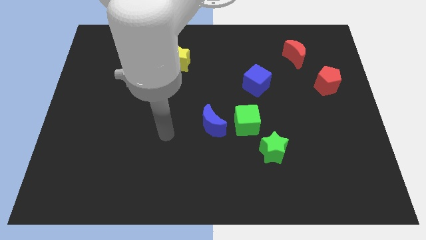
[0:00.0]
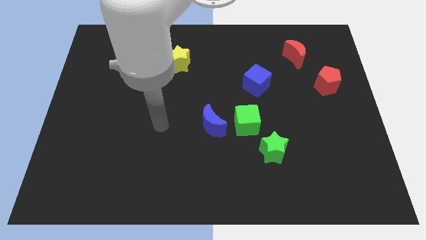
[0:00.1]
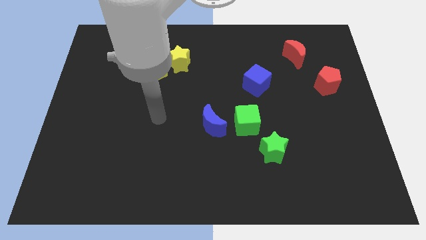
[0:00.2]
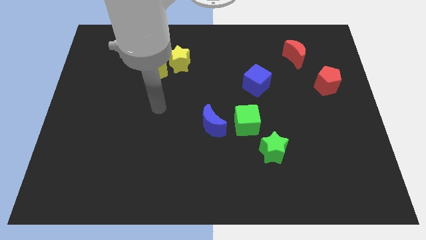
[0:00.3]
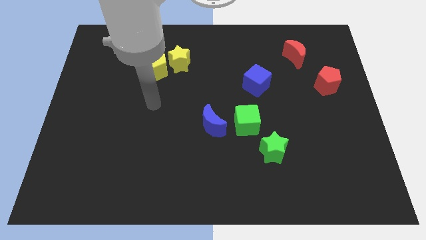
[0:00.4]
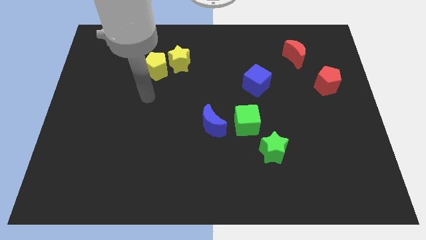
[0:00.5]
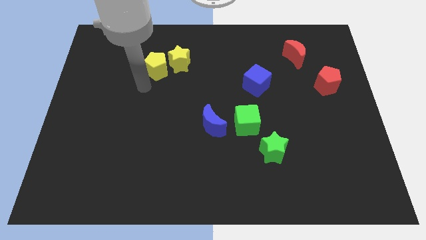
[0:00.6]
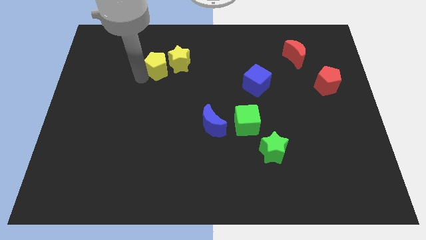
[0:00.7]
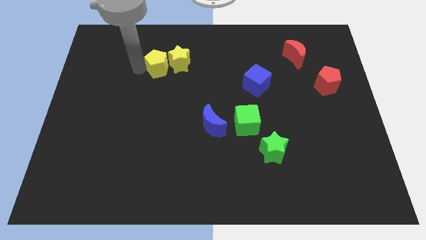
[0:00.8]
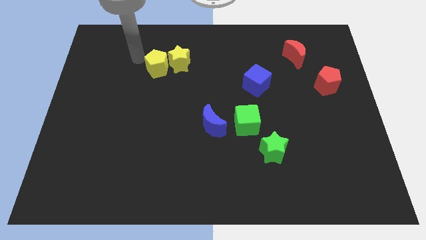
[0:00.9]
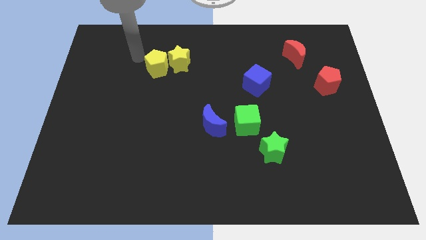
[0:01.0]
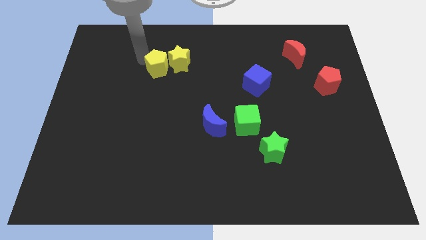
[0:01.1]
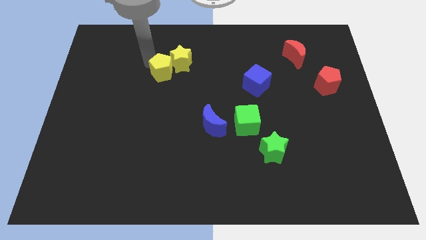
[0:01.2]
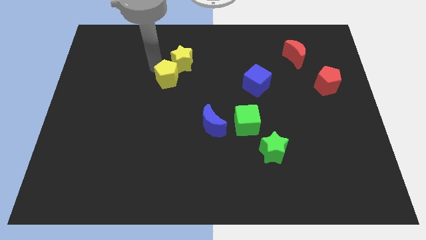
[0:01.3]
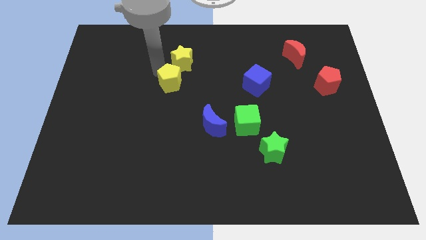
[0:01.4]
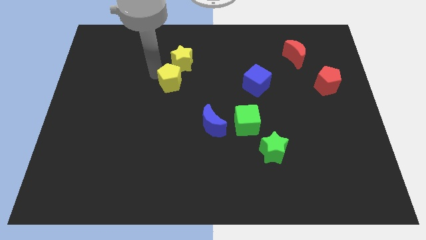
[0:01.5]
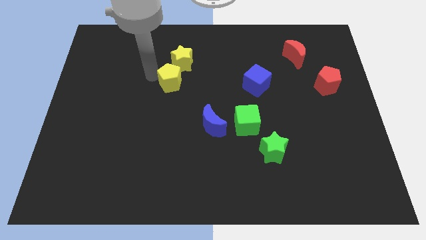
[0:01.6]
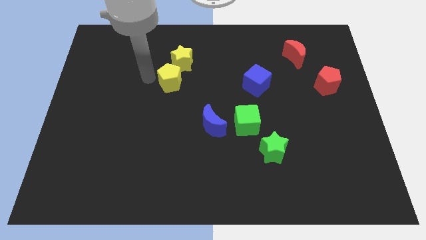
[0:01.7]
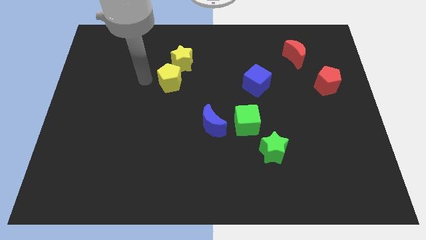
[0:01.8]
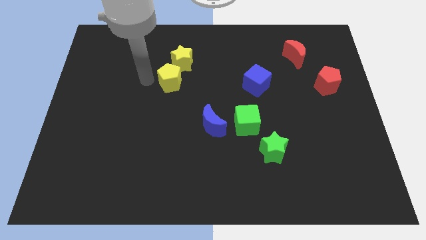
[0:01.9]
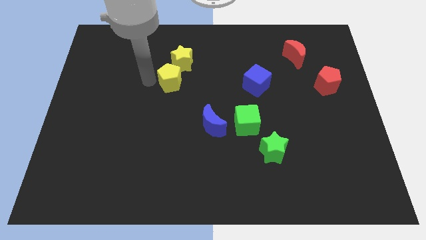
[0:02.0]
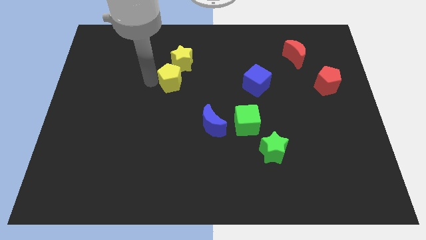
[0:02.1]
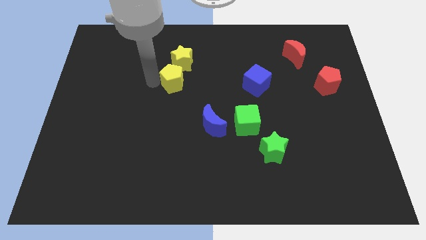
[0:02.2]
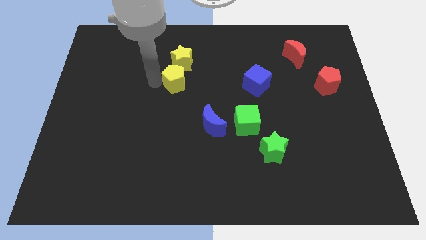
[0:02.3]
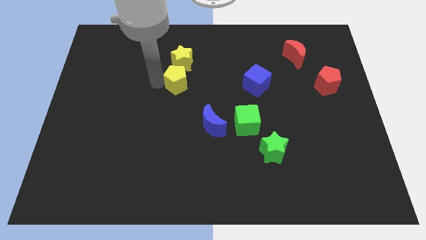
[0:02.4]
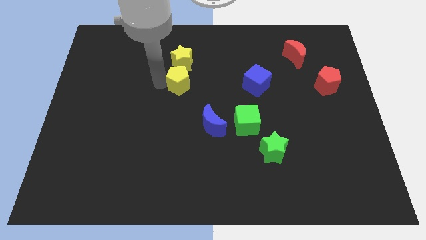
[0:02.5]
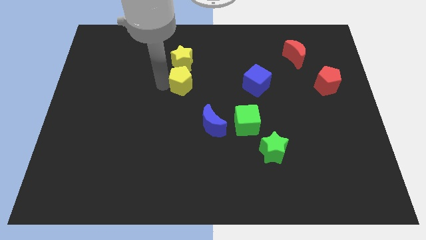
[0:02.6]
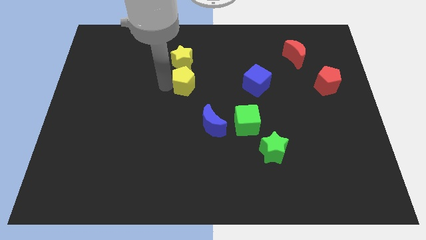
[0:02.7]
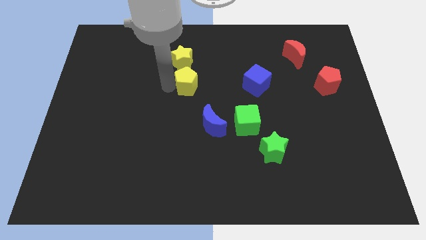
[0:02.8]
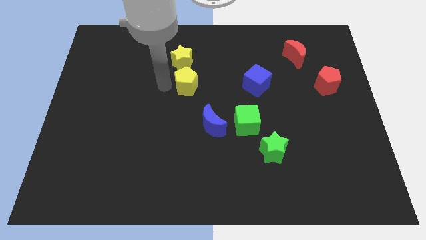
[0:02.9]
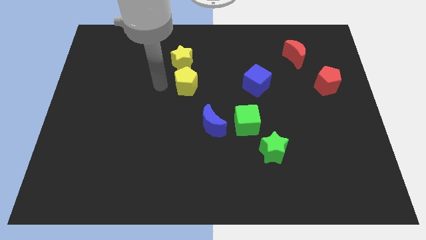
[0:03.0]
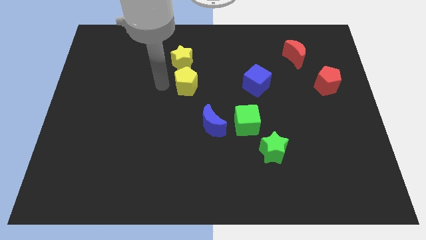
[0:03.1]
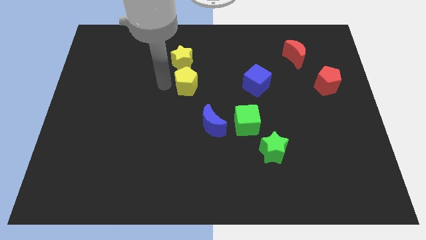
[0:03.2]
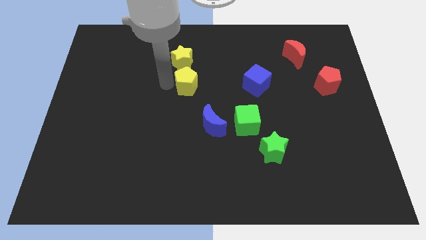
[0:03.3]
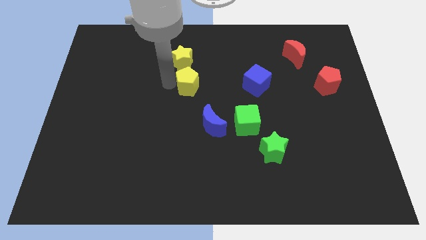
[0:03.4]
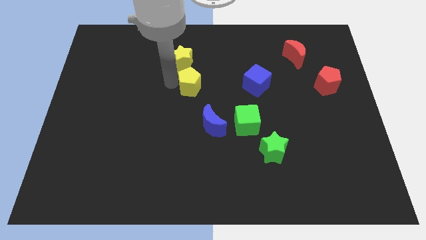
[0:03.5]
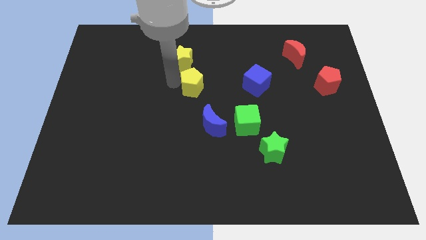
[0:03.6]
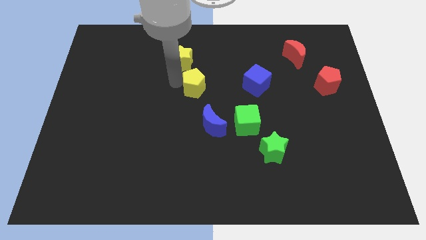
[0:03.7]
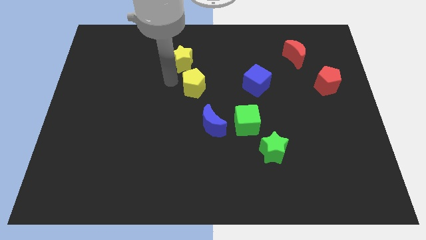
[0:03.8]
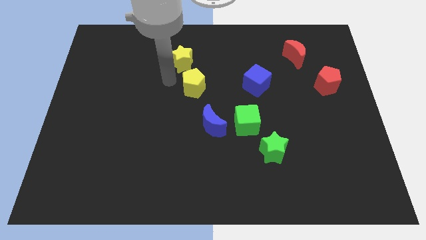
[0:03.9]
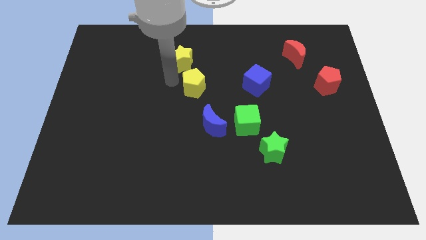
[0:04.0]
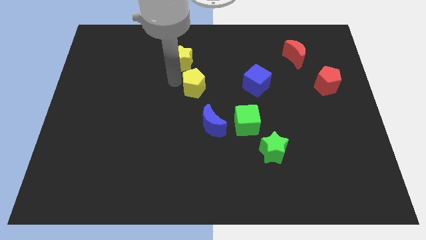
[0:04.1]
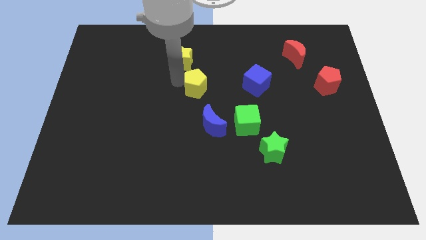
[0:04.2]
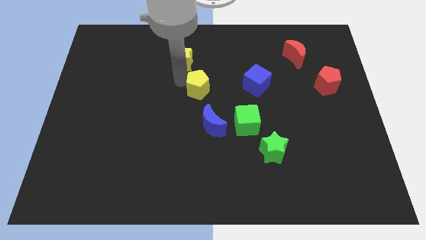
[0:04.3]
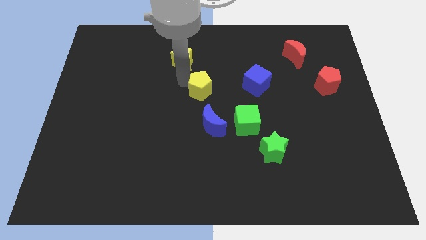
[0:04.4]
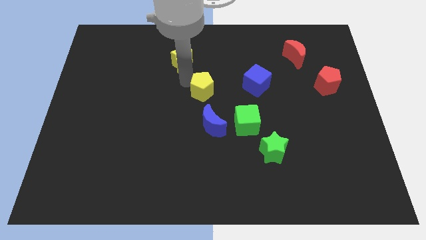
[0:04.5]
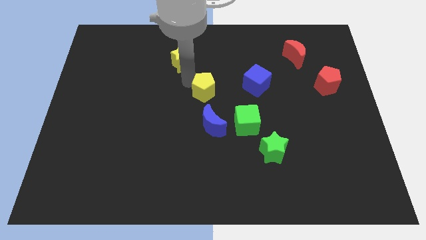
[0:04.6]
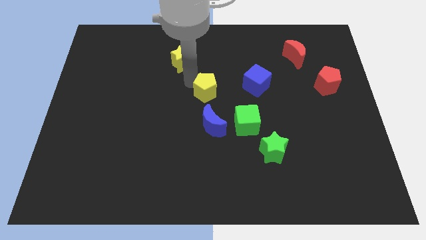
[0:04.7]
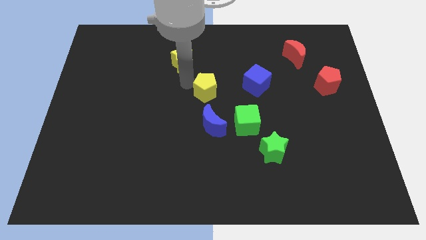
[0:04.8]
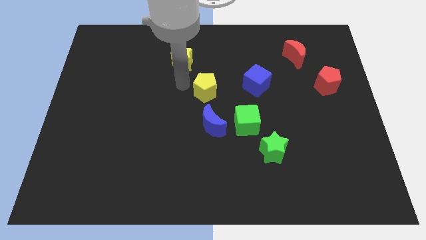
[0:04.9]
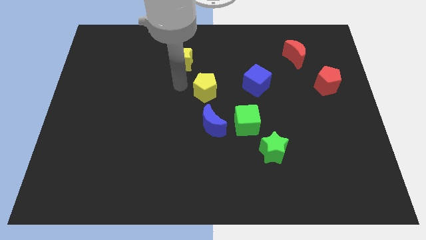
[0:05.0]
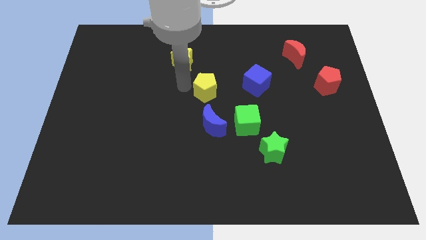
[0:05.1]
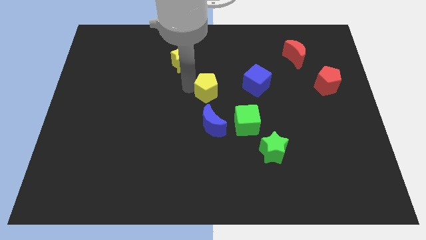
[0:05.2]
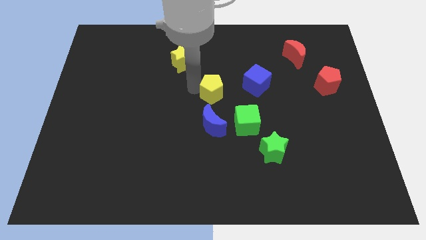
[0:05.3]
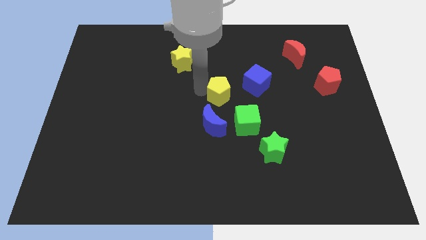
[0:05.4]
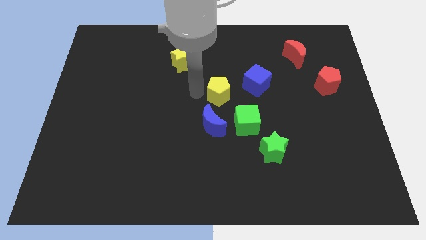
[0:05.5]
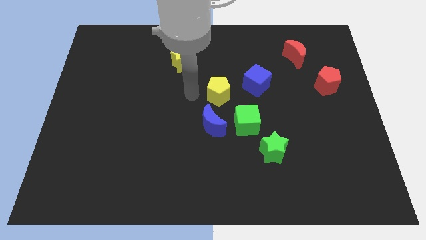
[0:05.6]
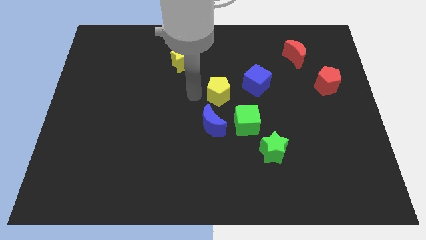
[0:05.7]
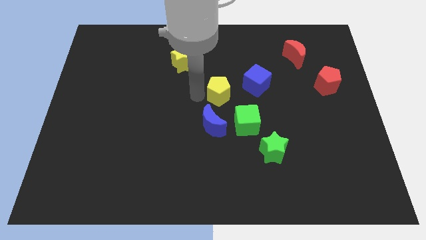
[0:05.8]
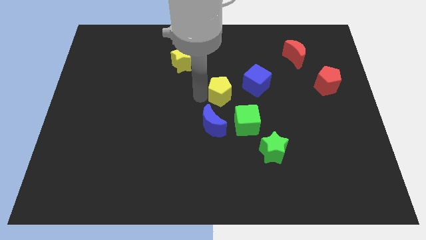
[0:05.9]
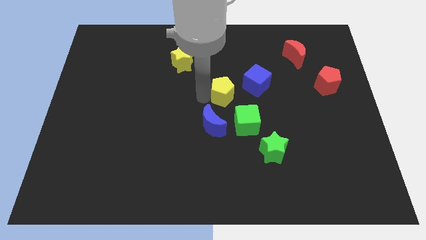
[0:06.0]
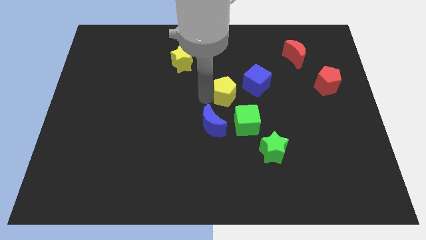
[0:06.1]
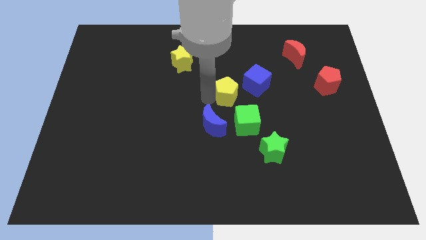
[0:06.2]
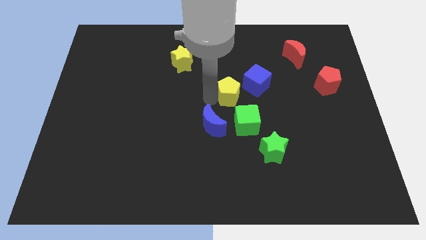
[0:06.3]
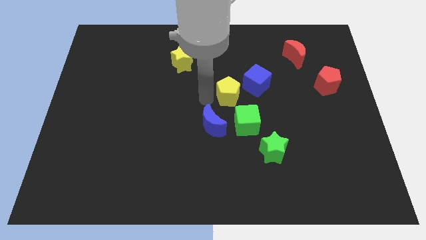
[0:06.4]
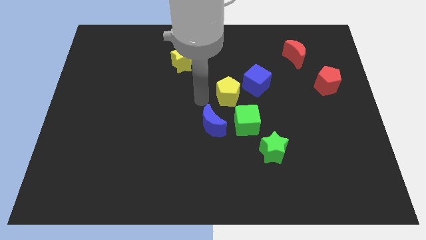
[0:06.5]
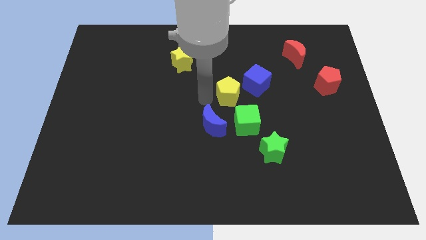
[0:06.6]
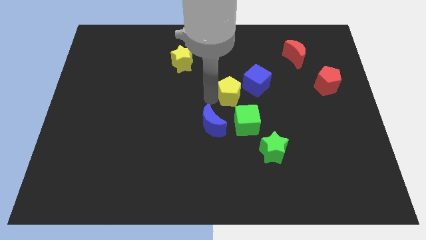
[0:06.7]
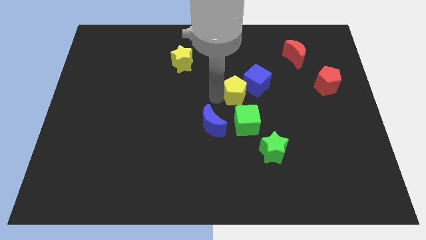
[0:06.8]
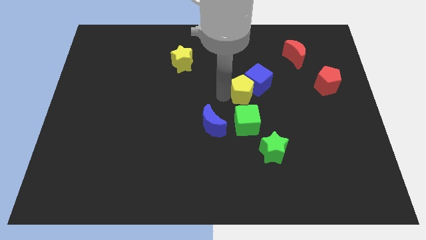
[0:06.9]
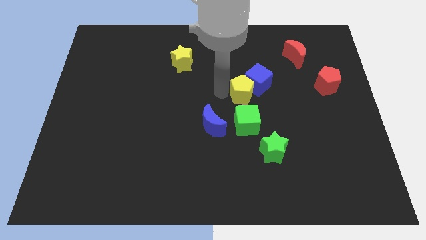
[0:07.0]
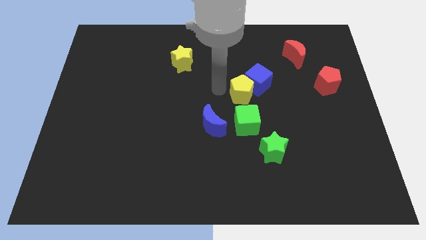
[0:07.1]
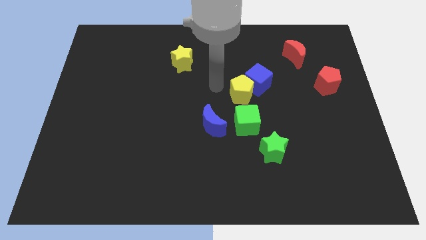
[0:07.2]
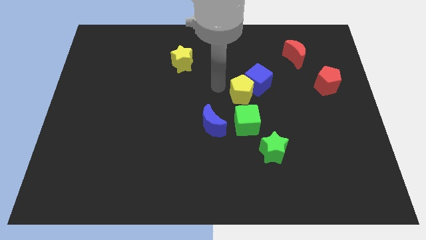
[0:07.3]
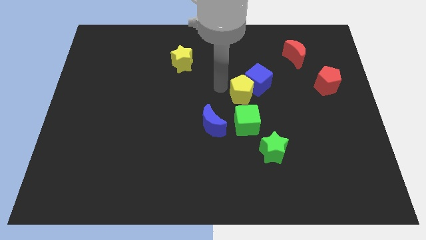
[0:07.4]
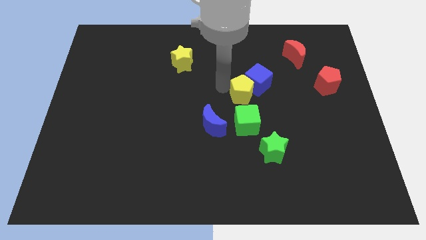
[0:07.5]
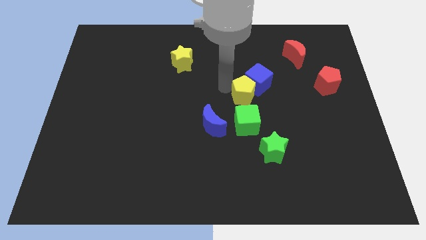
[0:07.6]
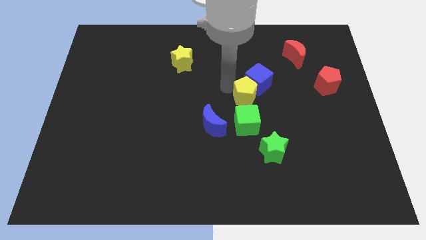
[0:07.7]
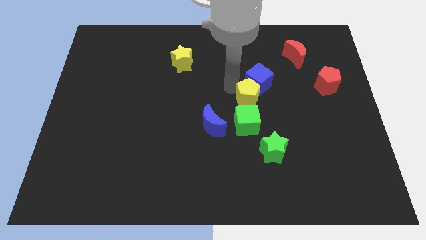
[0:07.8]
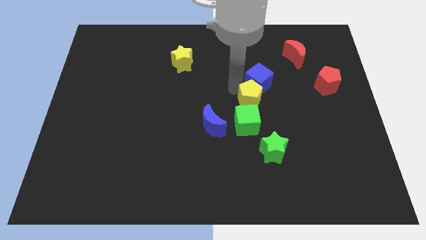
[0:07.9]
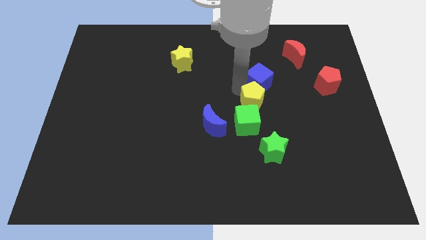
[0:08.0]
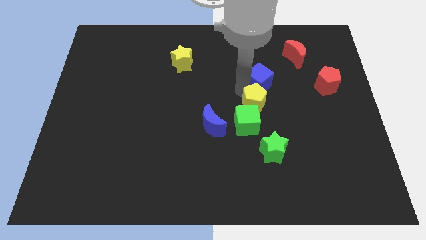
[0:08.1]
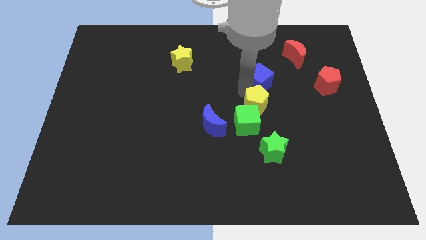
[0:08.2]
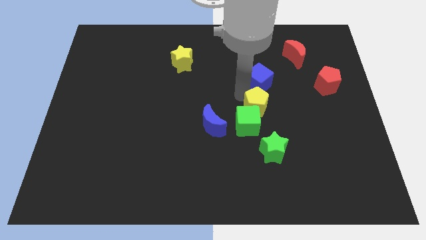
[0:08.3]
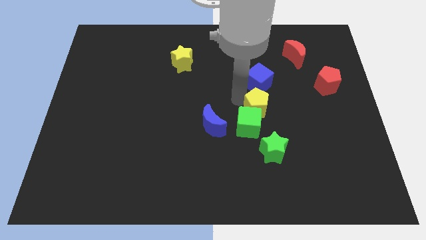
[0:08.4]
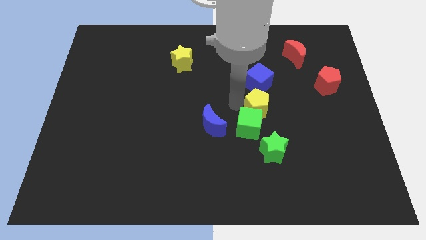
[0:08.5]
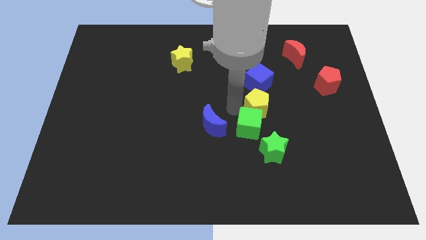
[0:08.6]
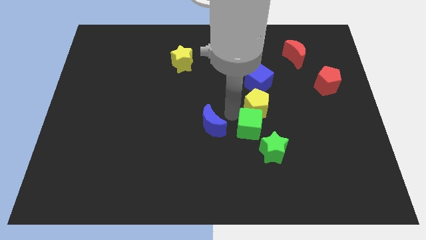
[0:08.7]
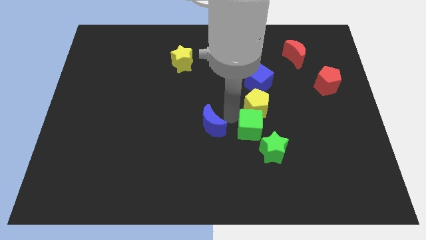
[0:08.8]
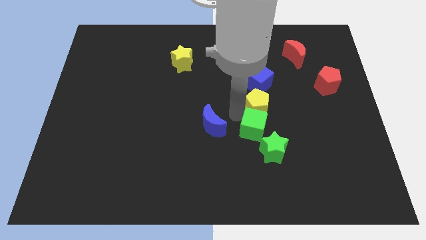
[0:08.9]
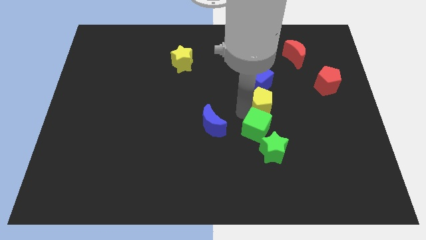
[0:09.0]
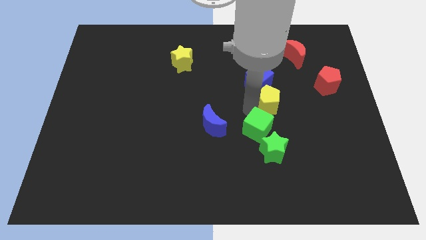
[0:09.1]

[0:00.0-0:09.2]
push the yellow pentagon to the bottom right side of the blue cube
